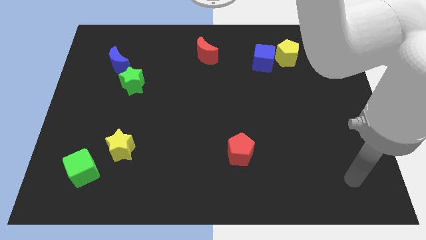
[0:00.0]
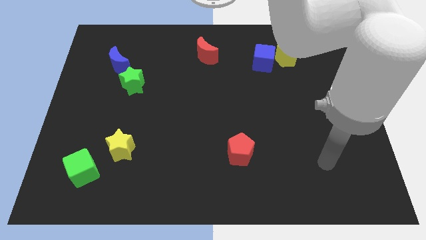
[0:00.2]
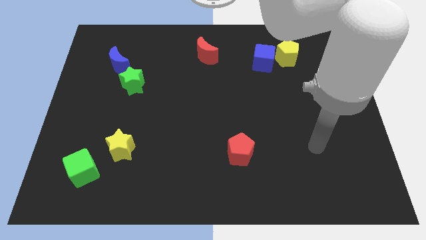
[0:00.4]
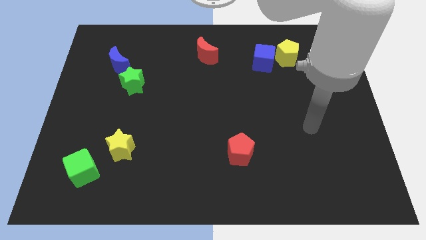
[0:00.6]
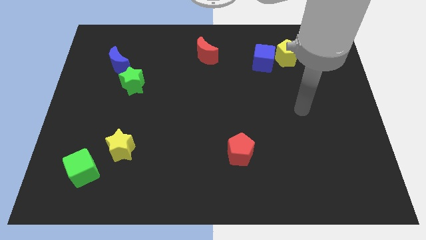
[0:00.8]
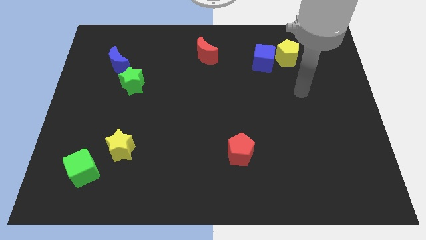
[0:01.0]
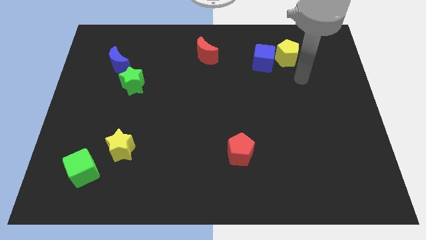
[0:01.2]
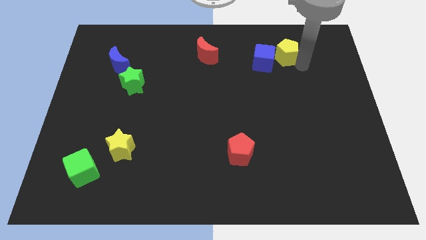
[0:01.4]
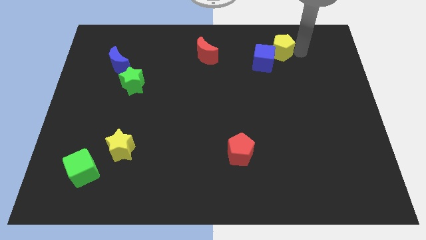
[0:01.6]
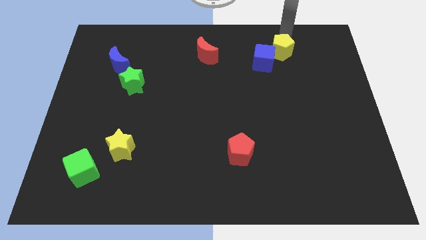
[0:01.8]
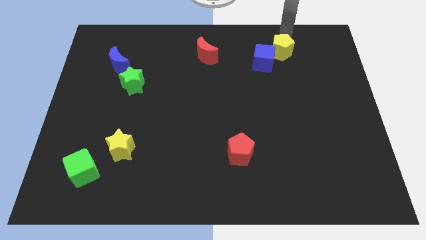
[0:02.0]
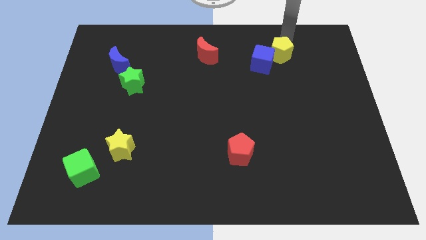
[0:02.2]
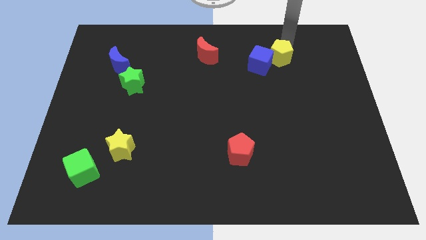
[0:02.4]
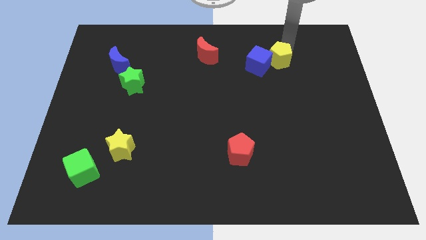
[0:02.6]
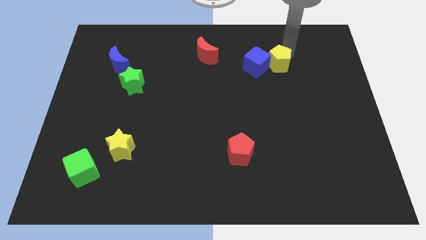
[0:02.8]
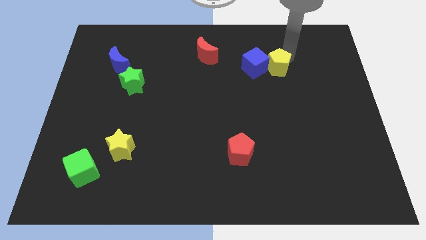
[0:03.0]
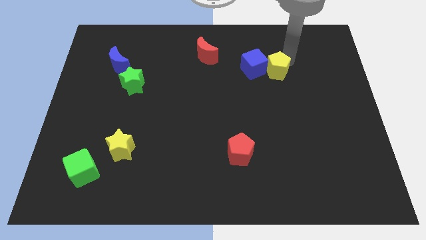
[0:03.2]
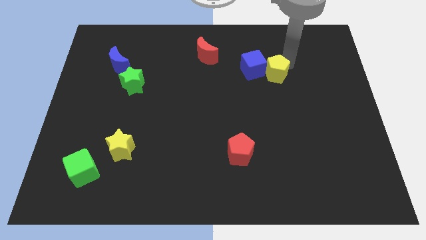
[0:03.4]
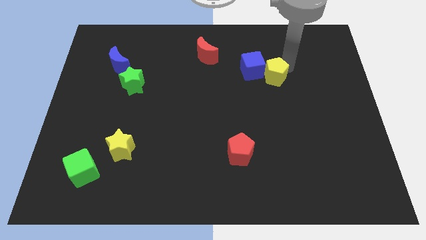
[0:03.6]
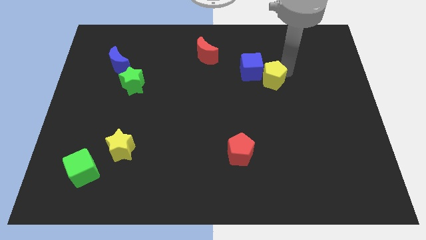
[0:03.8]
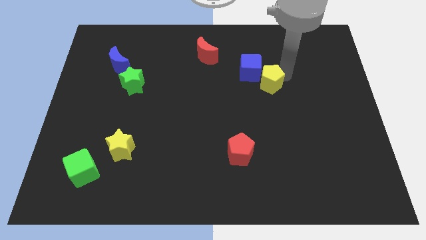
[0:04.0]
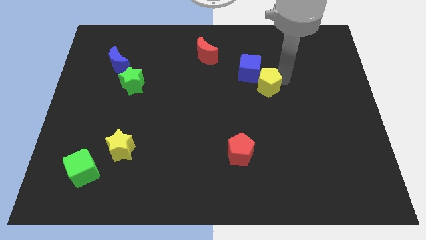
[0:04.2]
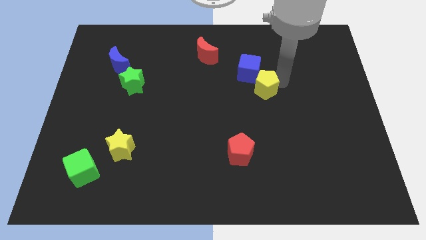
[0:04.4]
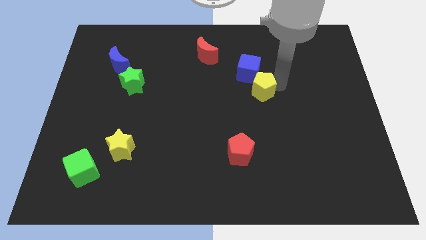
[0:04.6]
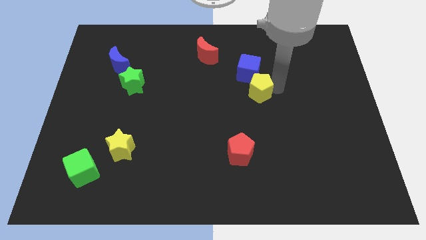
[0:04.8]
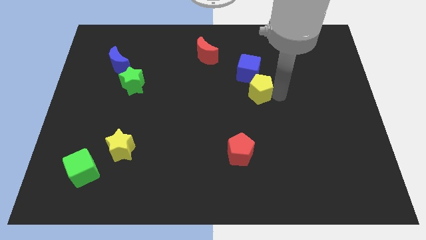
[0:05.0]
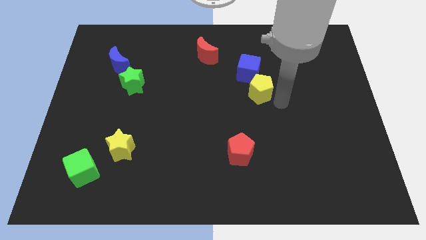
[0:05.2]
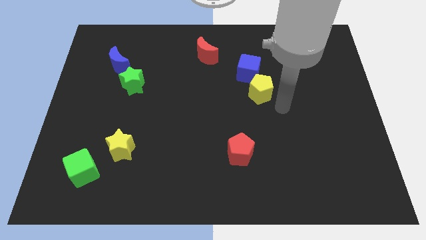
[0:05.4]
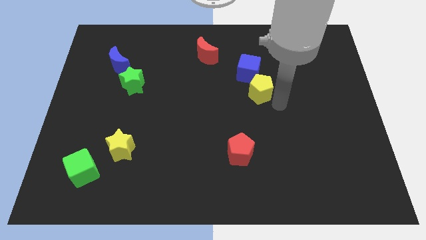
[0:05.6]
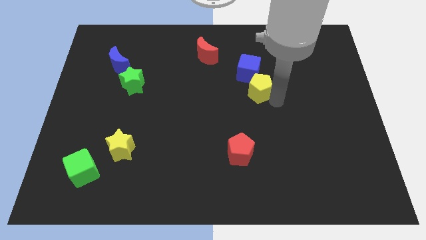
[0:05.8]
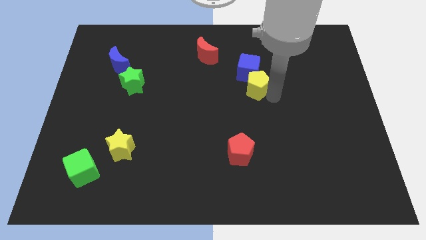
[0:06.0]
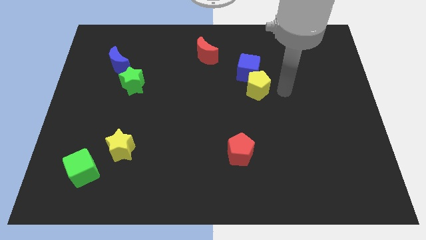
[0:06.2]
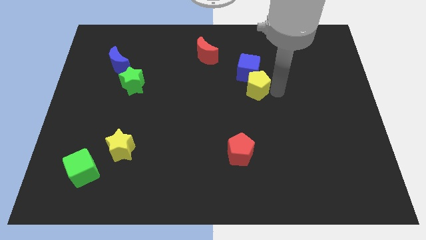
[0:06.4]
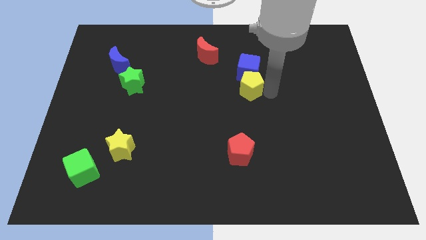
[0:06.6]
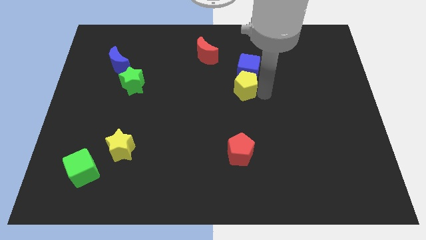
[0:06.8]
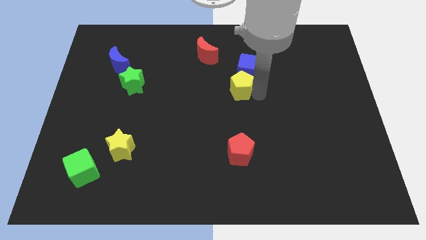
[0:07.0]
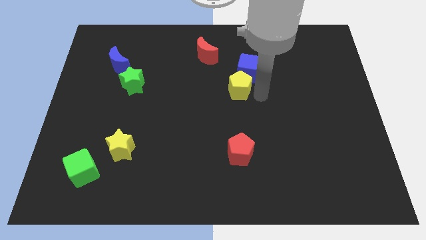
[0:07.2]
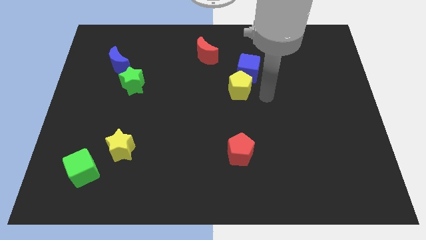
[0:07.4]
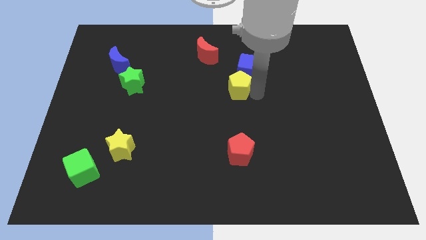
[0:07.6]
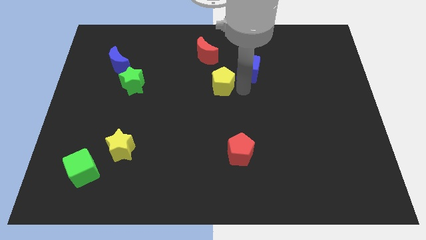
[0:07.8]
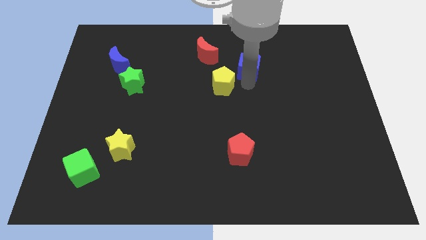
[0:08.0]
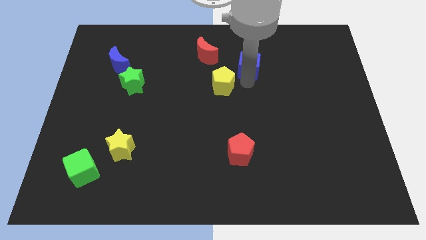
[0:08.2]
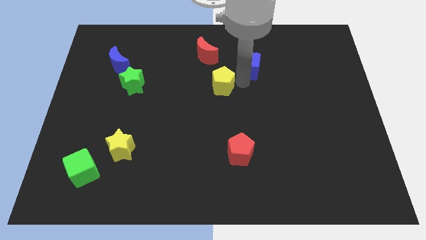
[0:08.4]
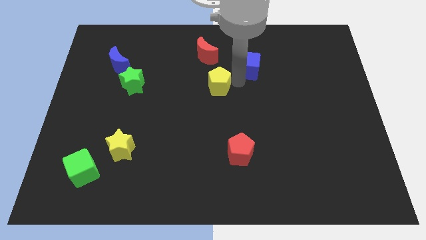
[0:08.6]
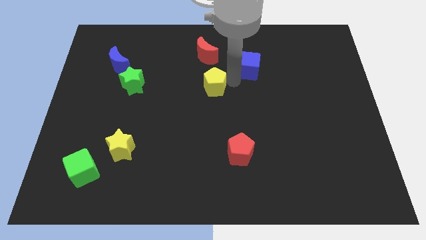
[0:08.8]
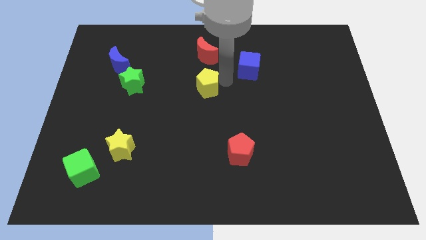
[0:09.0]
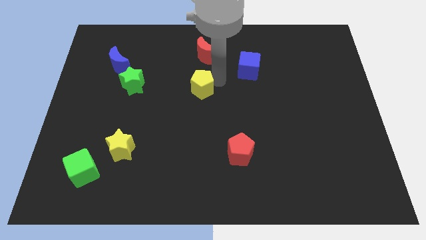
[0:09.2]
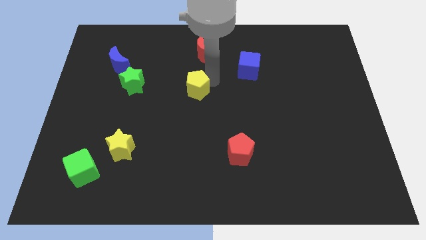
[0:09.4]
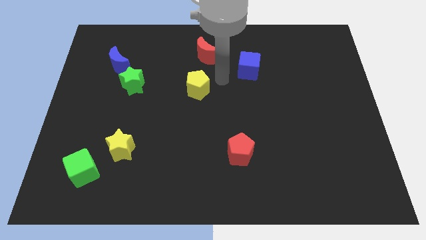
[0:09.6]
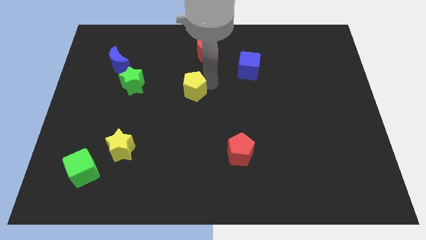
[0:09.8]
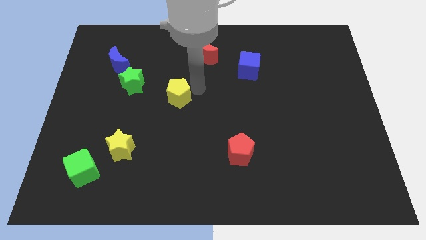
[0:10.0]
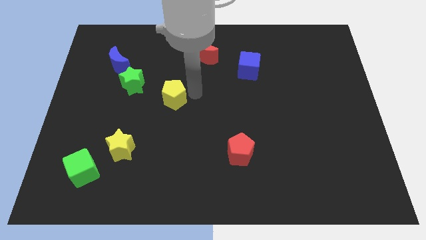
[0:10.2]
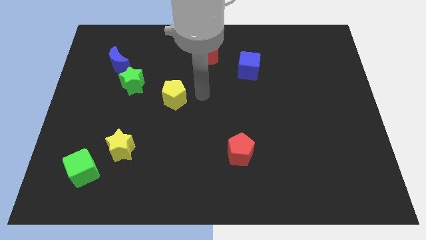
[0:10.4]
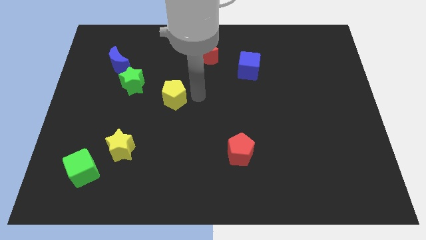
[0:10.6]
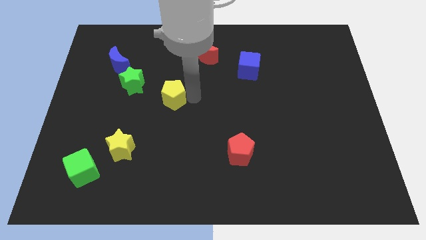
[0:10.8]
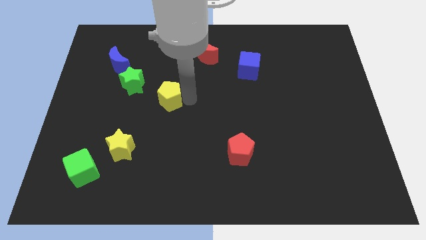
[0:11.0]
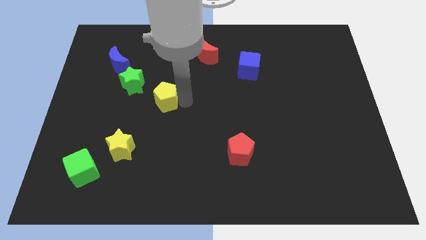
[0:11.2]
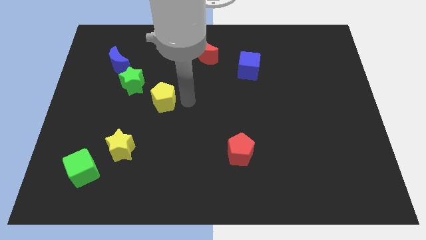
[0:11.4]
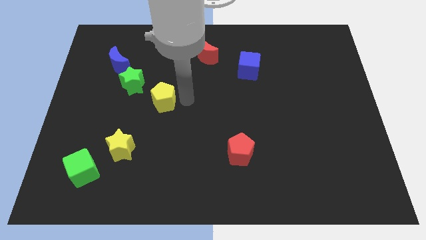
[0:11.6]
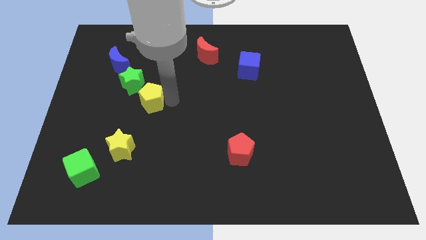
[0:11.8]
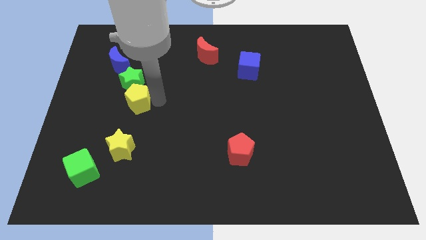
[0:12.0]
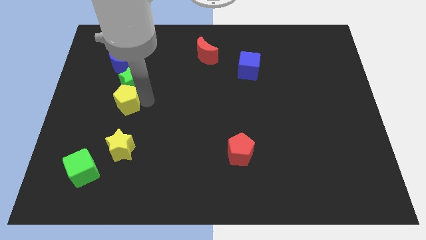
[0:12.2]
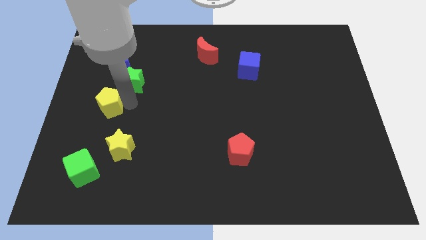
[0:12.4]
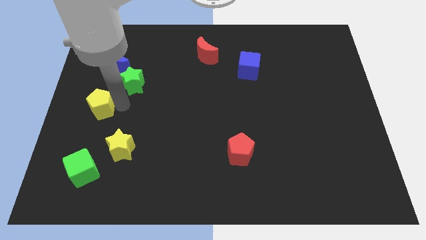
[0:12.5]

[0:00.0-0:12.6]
put the yellow pentagon to the left side of the board
